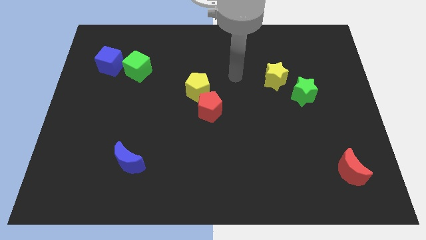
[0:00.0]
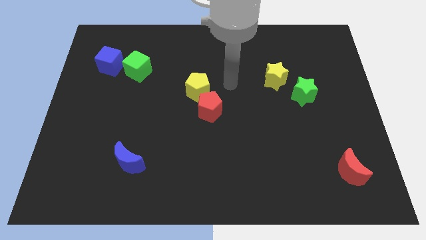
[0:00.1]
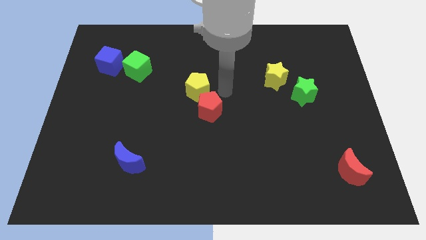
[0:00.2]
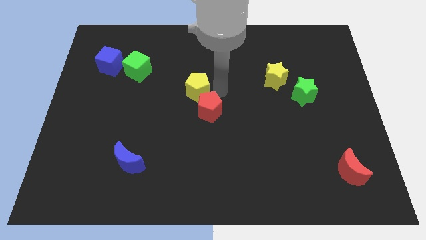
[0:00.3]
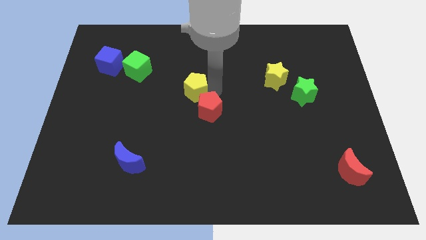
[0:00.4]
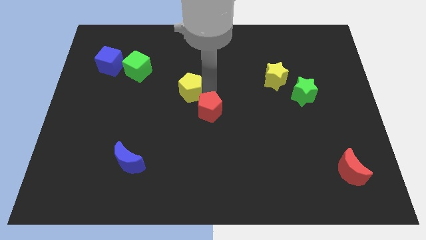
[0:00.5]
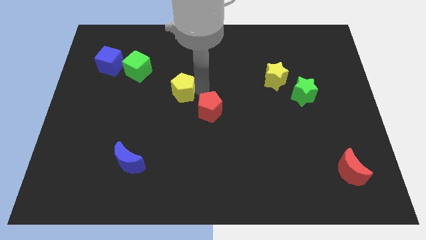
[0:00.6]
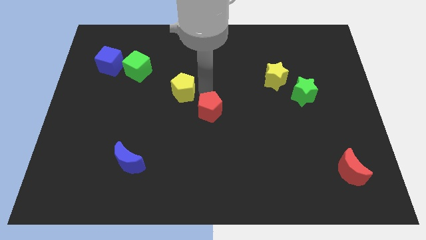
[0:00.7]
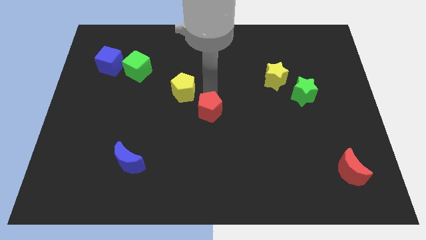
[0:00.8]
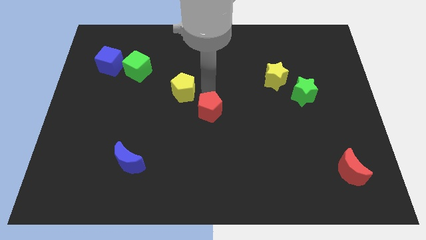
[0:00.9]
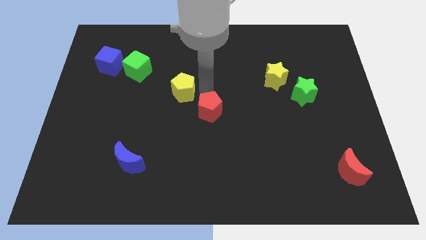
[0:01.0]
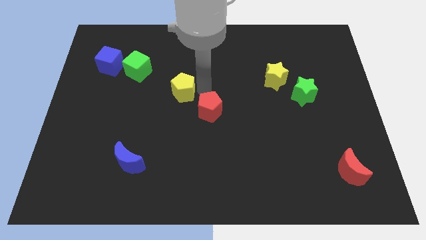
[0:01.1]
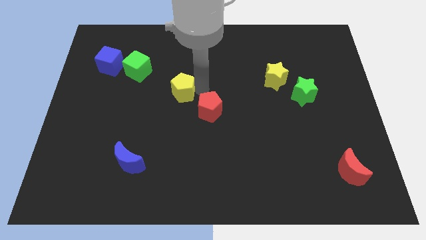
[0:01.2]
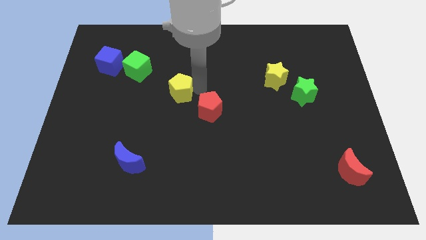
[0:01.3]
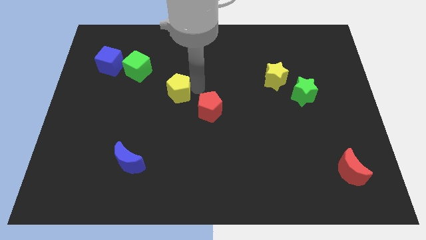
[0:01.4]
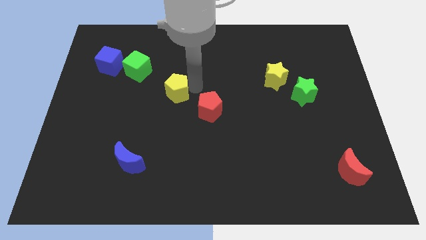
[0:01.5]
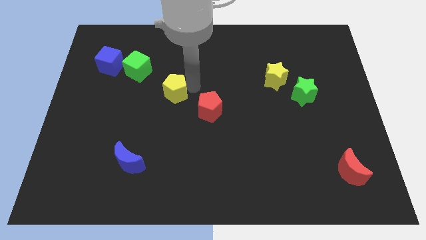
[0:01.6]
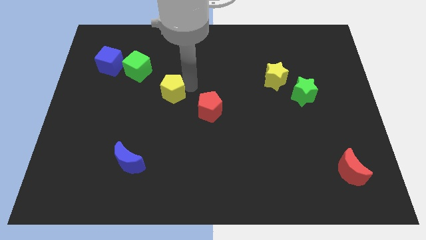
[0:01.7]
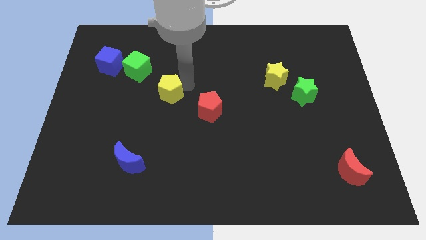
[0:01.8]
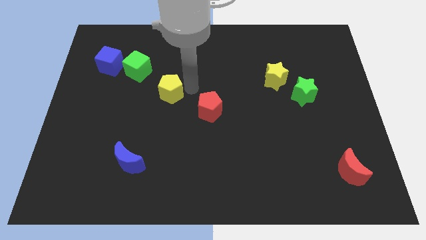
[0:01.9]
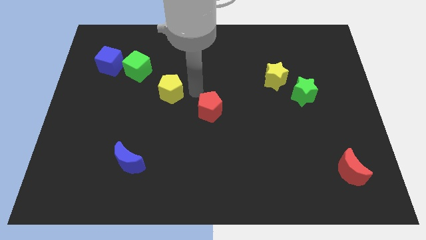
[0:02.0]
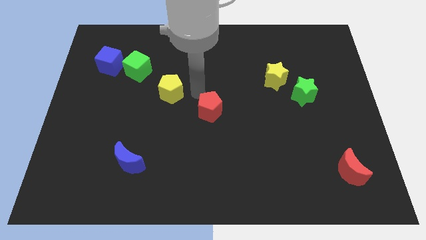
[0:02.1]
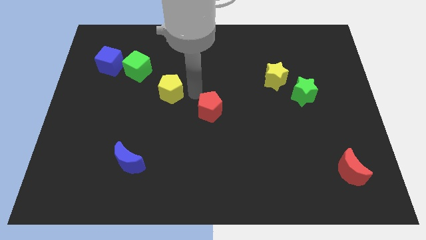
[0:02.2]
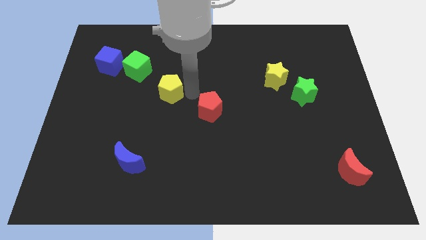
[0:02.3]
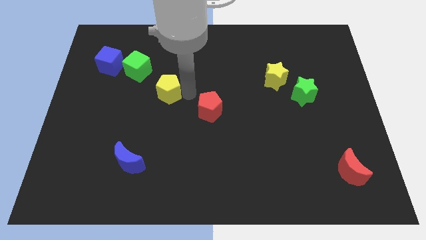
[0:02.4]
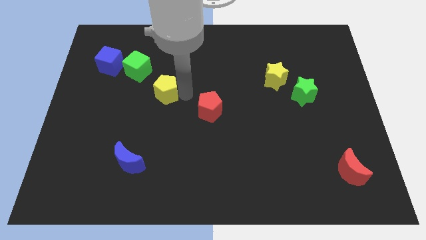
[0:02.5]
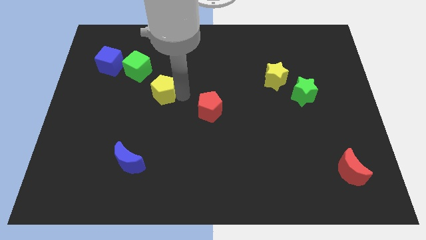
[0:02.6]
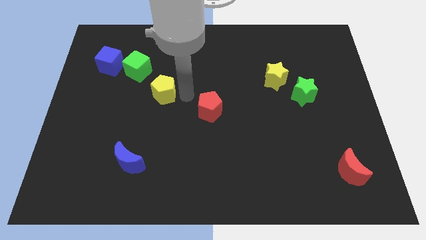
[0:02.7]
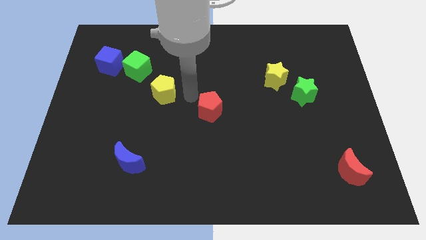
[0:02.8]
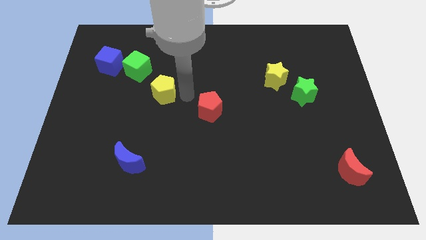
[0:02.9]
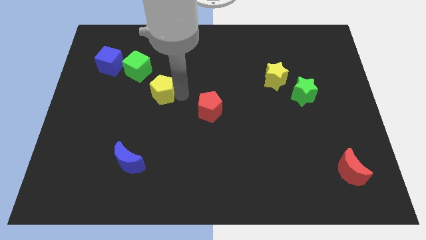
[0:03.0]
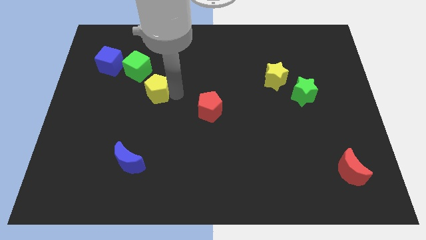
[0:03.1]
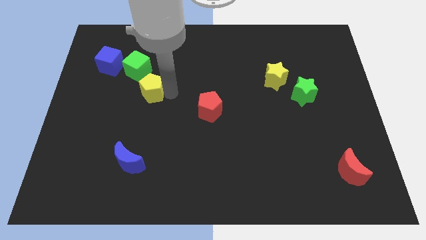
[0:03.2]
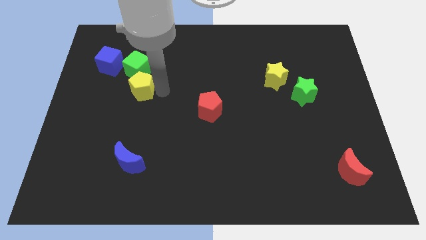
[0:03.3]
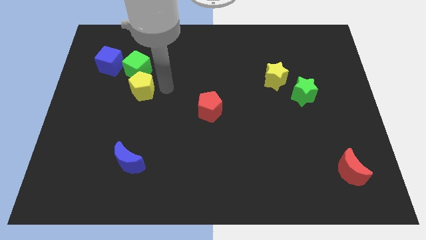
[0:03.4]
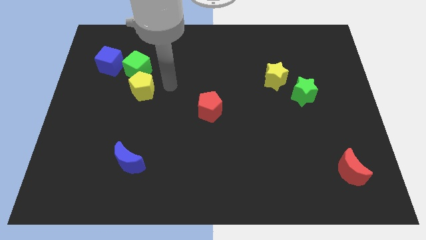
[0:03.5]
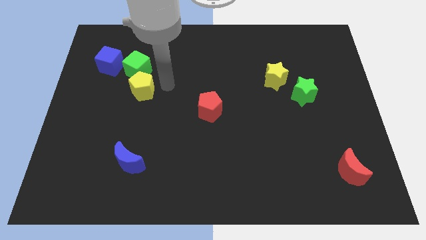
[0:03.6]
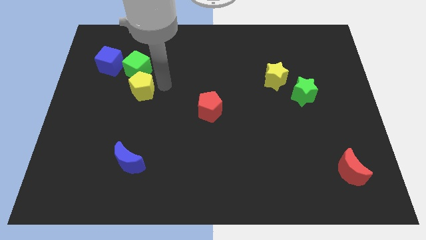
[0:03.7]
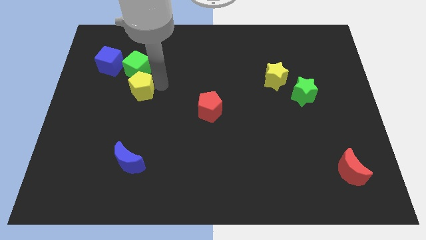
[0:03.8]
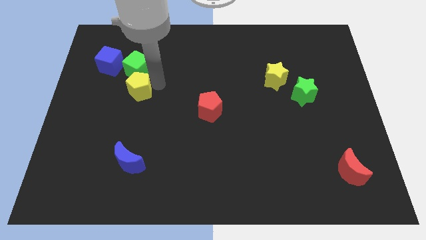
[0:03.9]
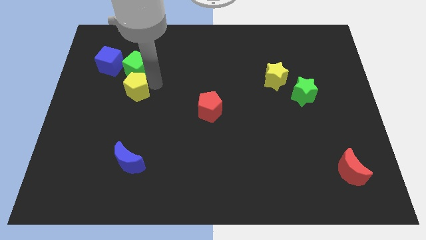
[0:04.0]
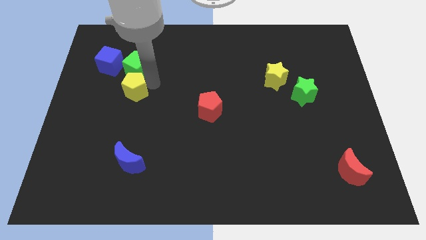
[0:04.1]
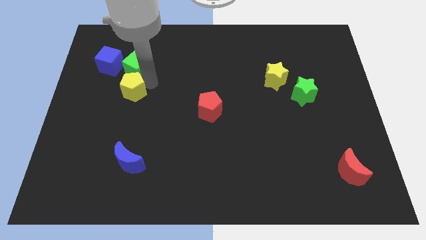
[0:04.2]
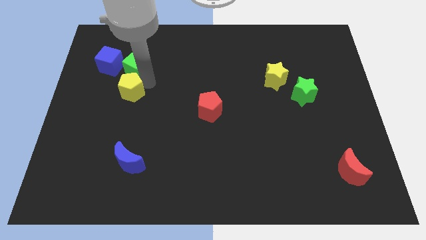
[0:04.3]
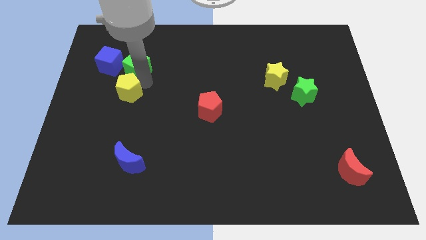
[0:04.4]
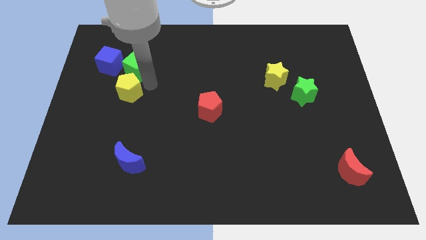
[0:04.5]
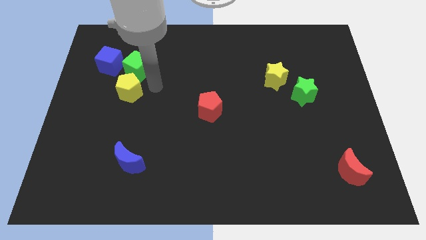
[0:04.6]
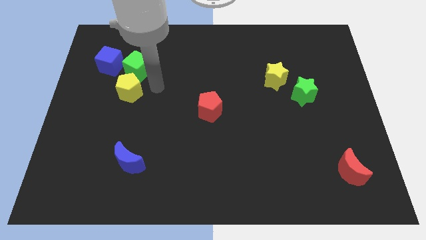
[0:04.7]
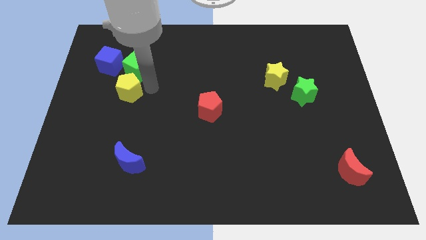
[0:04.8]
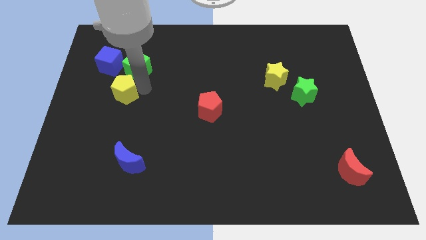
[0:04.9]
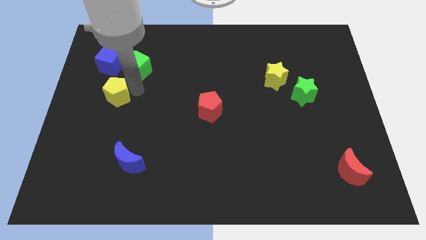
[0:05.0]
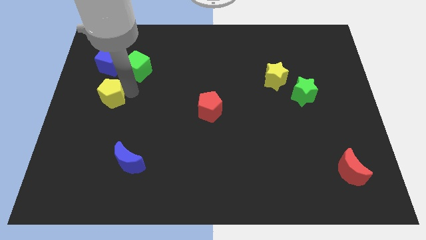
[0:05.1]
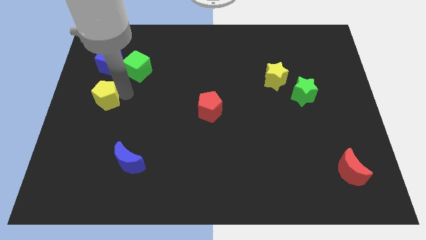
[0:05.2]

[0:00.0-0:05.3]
move the yellow pentagon to the left side

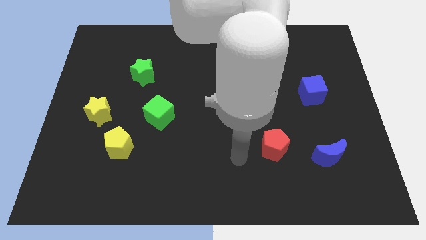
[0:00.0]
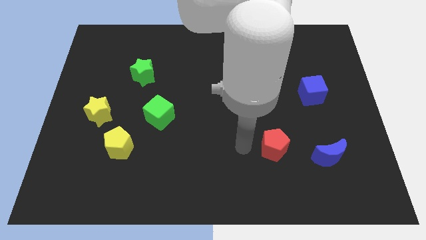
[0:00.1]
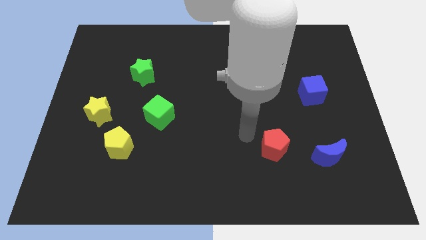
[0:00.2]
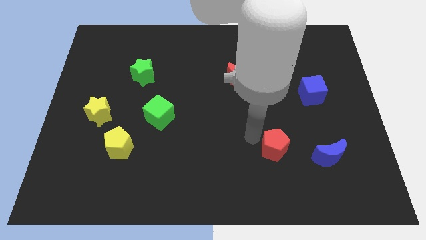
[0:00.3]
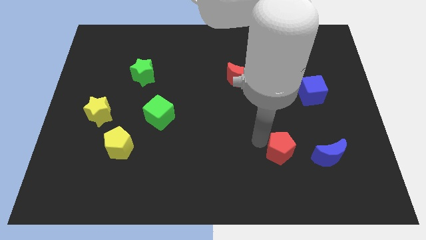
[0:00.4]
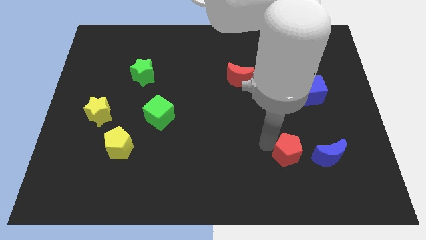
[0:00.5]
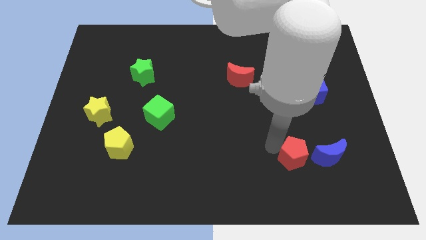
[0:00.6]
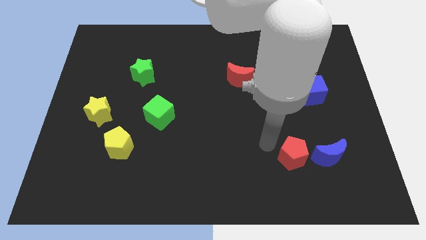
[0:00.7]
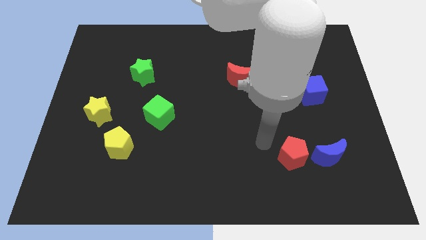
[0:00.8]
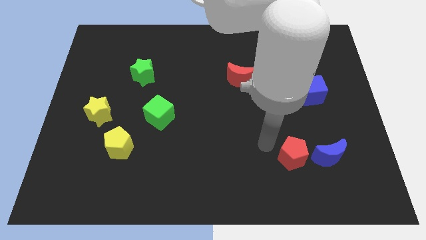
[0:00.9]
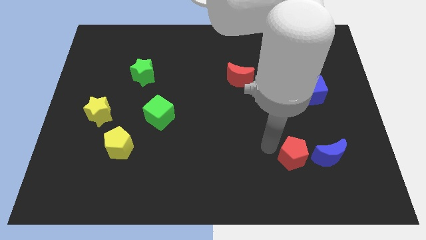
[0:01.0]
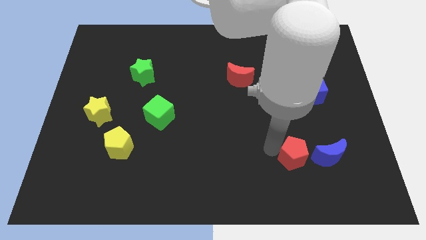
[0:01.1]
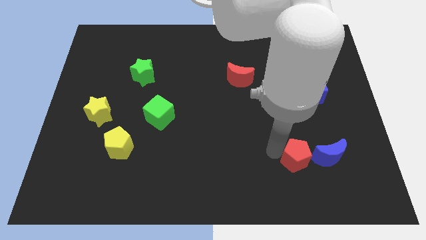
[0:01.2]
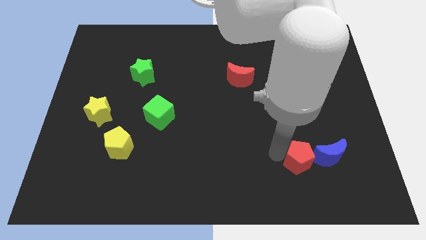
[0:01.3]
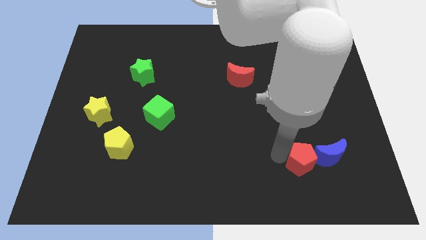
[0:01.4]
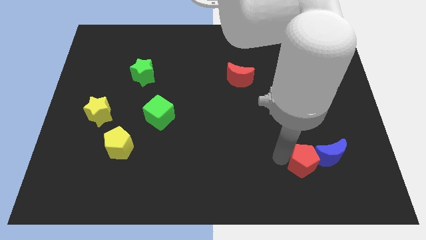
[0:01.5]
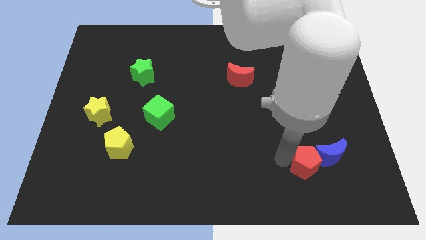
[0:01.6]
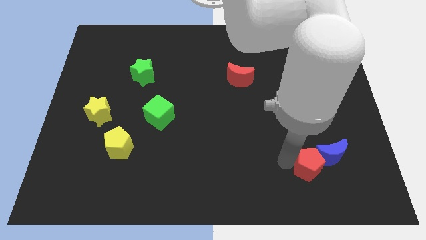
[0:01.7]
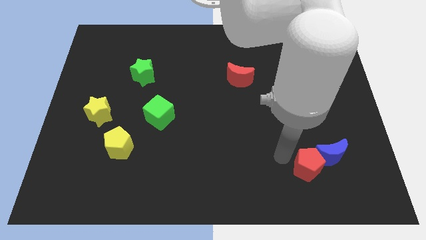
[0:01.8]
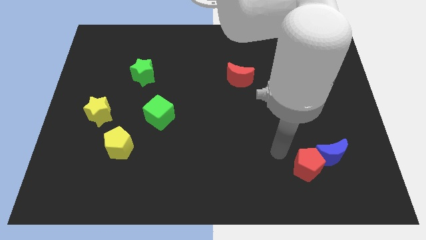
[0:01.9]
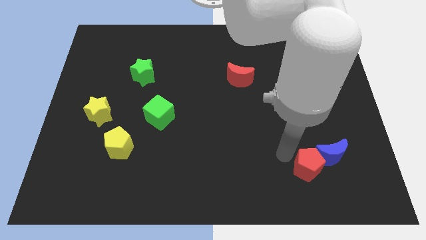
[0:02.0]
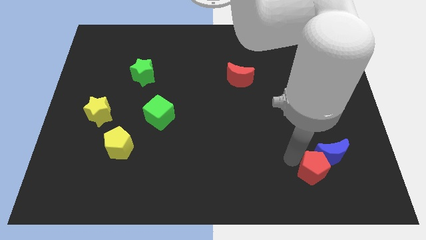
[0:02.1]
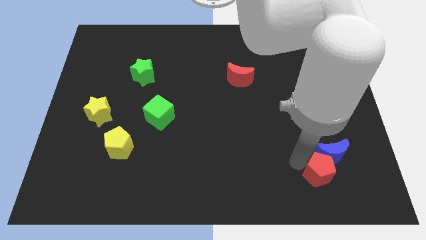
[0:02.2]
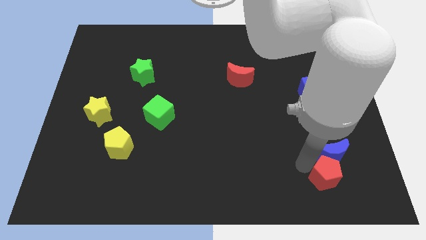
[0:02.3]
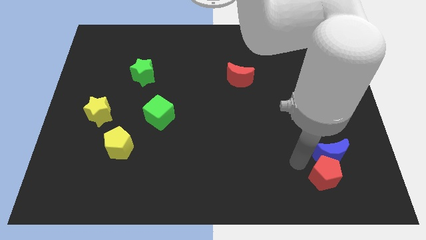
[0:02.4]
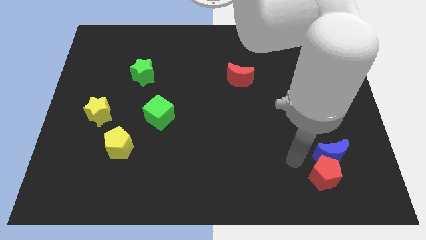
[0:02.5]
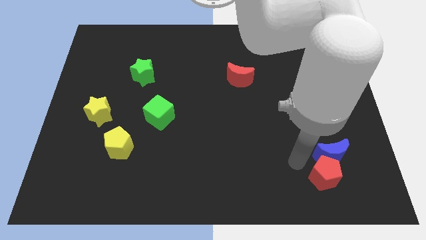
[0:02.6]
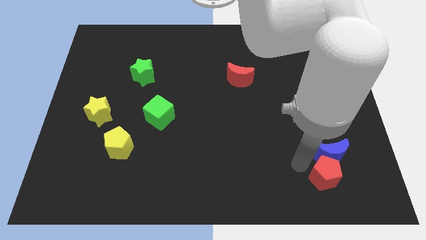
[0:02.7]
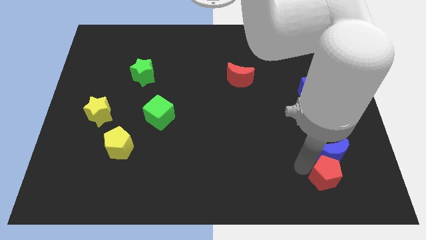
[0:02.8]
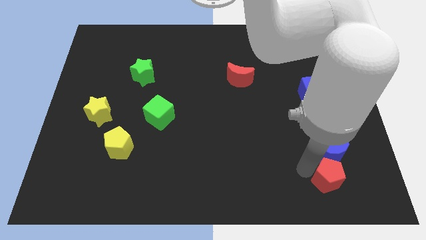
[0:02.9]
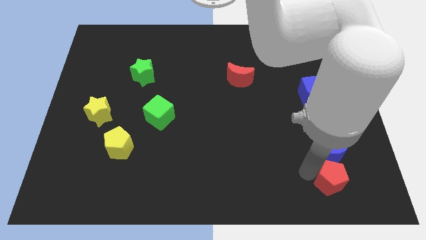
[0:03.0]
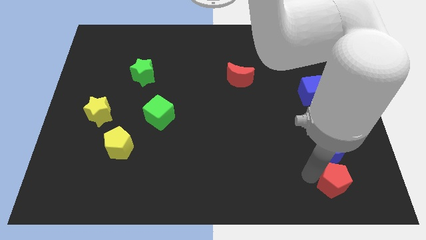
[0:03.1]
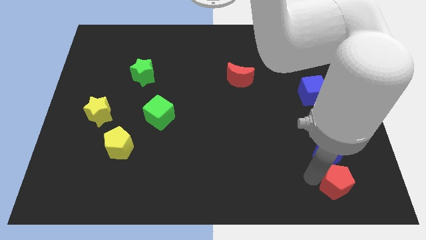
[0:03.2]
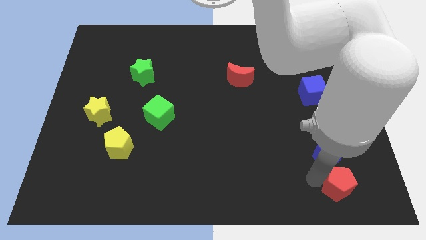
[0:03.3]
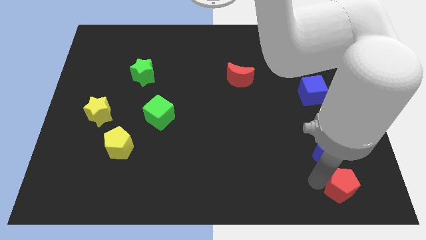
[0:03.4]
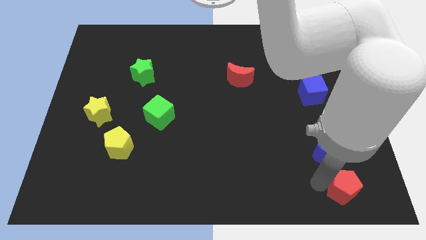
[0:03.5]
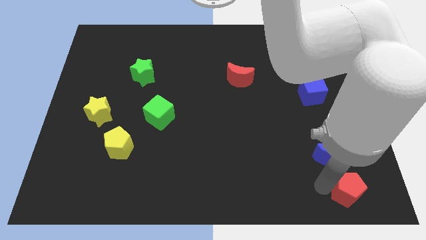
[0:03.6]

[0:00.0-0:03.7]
push the red pentagon to the bottom right
